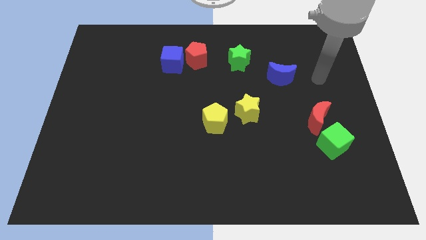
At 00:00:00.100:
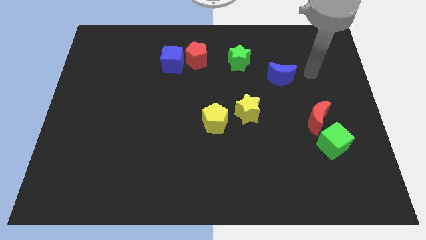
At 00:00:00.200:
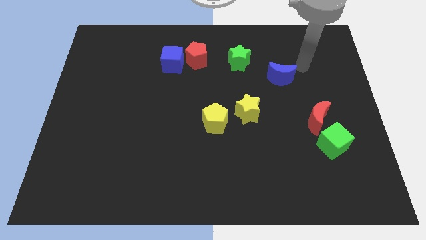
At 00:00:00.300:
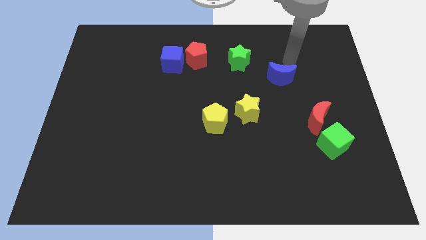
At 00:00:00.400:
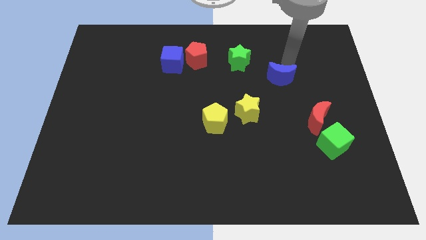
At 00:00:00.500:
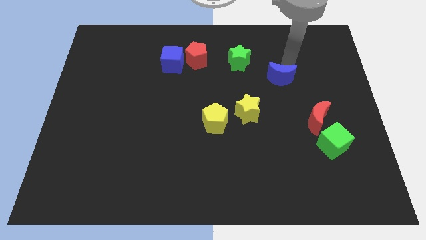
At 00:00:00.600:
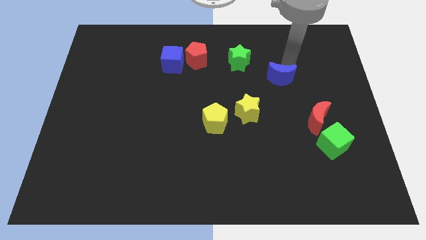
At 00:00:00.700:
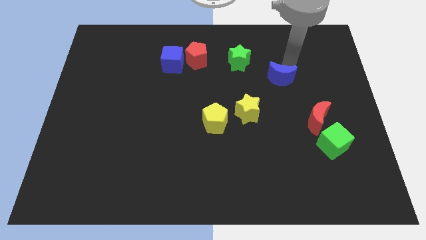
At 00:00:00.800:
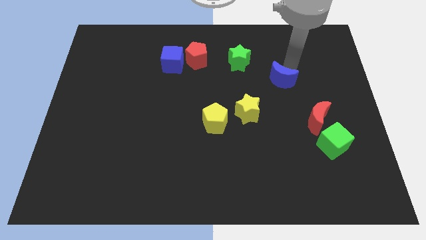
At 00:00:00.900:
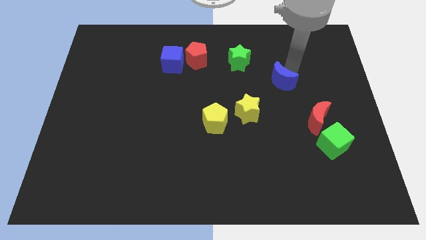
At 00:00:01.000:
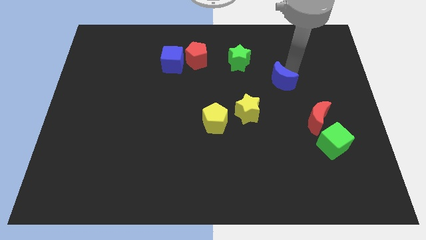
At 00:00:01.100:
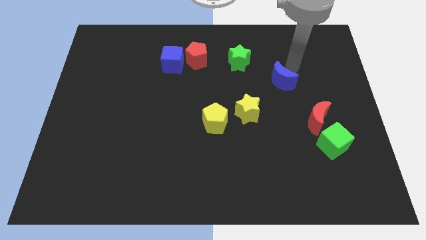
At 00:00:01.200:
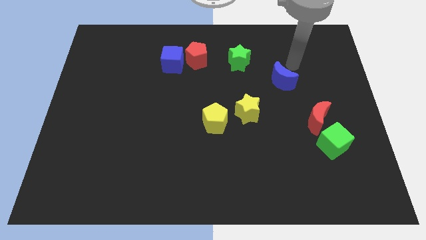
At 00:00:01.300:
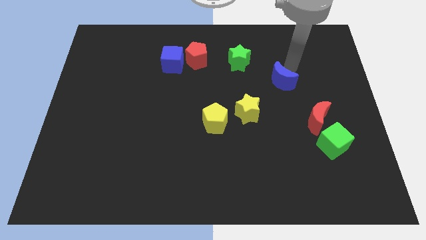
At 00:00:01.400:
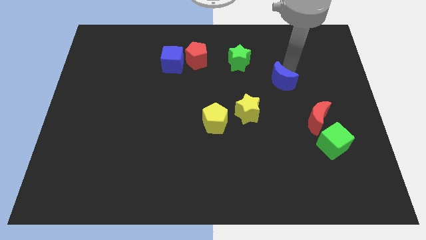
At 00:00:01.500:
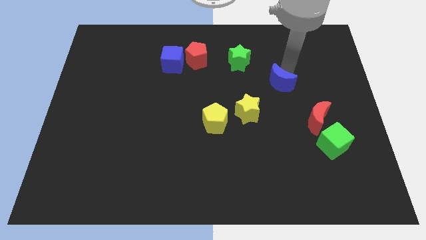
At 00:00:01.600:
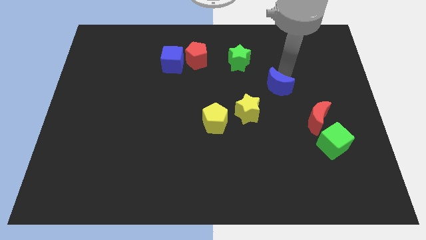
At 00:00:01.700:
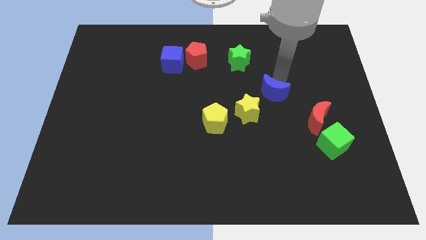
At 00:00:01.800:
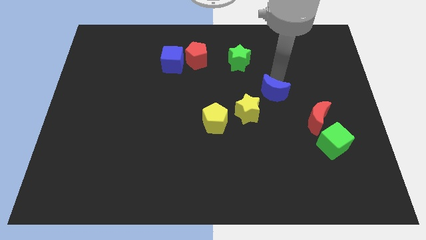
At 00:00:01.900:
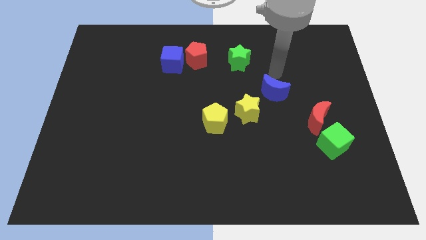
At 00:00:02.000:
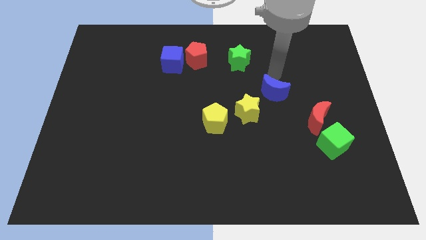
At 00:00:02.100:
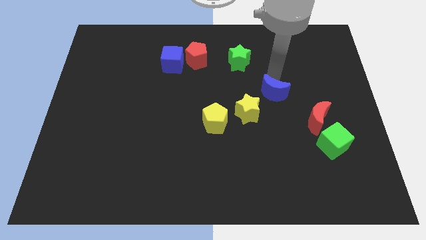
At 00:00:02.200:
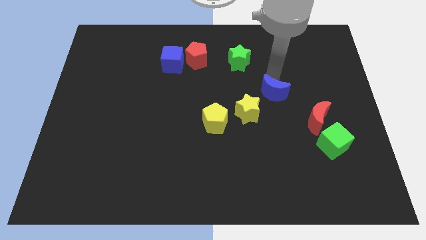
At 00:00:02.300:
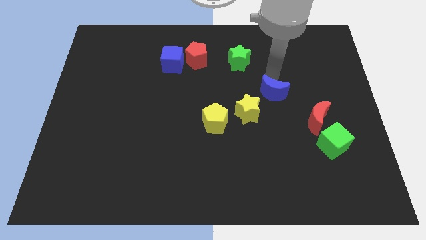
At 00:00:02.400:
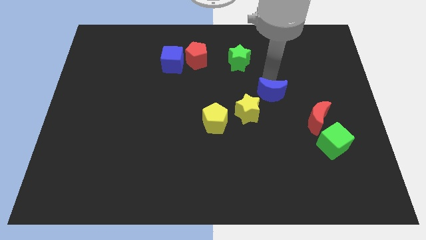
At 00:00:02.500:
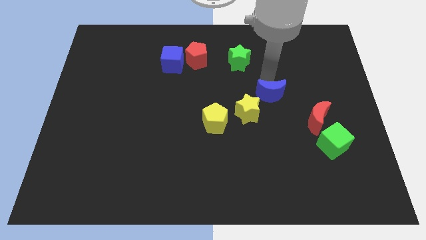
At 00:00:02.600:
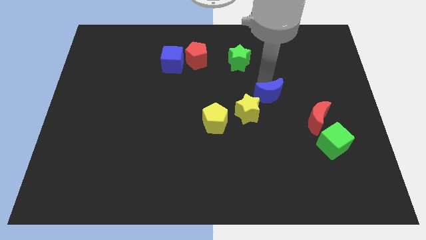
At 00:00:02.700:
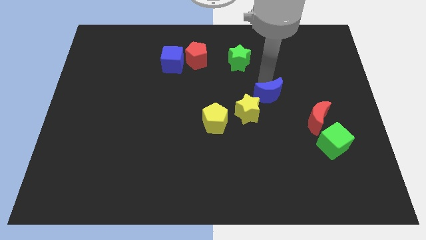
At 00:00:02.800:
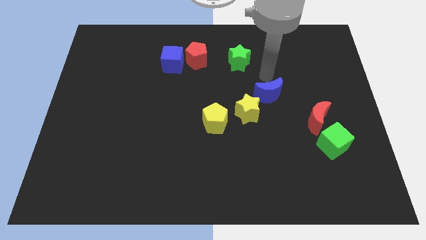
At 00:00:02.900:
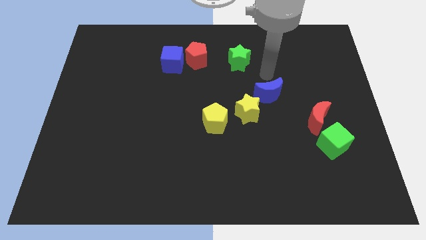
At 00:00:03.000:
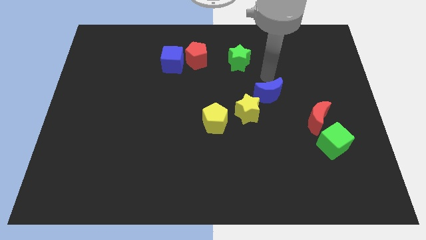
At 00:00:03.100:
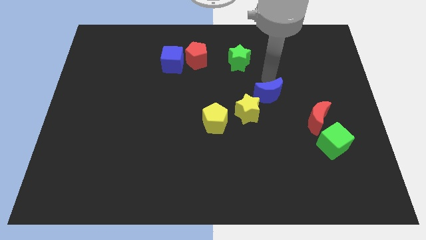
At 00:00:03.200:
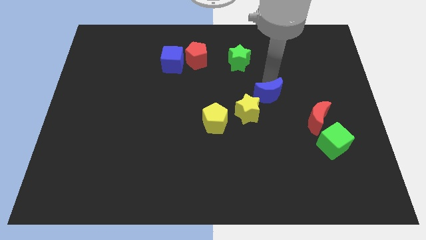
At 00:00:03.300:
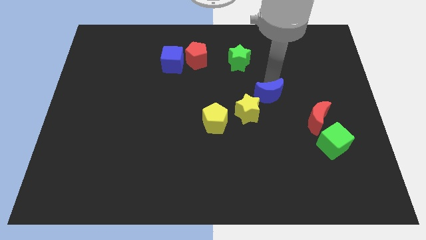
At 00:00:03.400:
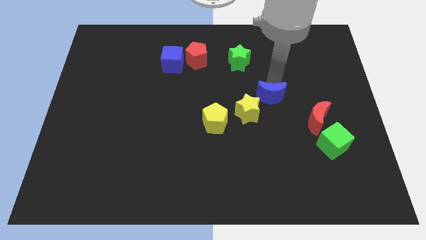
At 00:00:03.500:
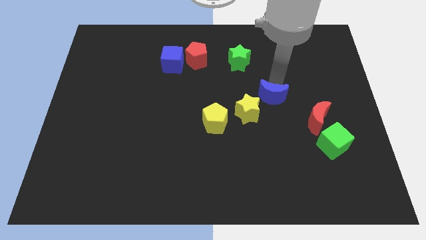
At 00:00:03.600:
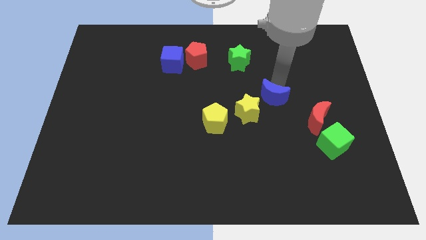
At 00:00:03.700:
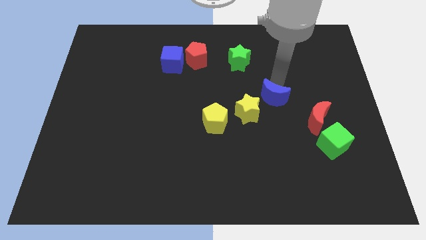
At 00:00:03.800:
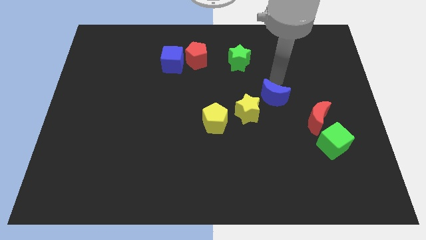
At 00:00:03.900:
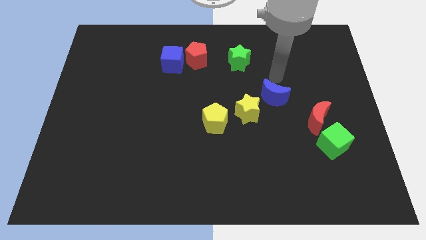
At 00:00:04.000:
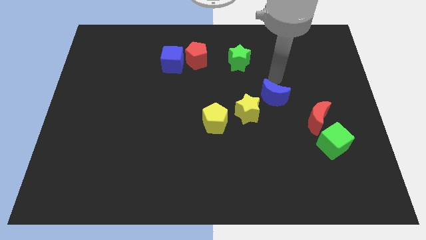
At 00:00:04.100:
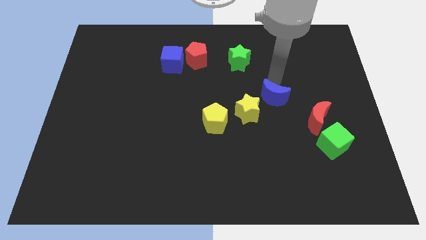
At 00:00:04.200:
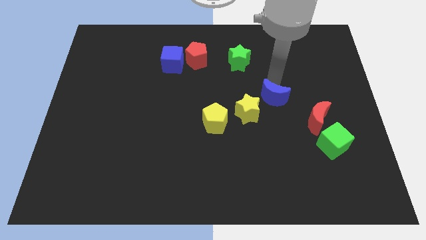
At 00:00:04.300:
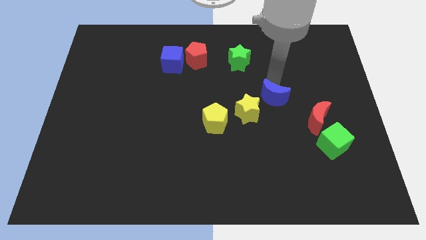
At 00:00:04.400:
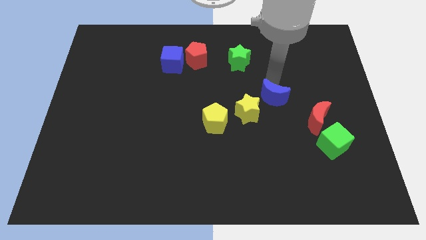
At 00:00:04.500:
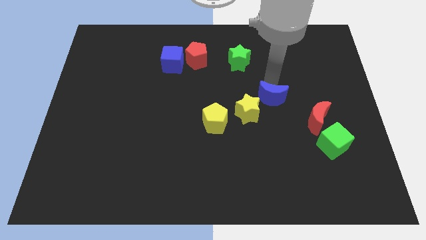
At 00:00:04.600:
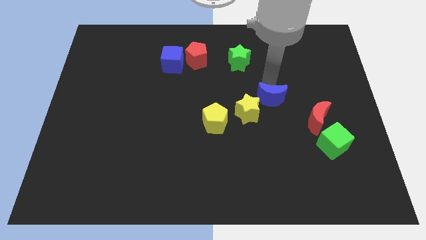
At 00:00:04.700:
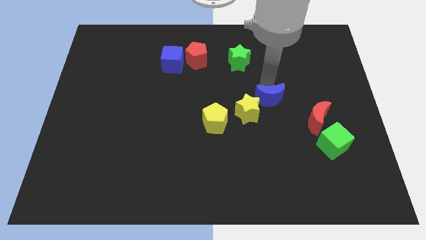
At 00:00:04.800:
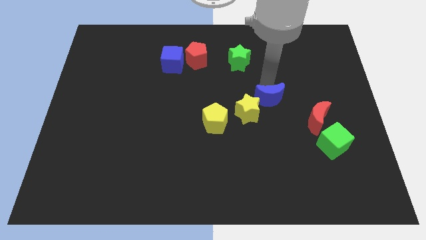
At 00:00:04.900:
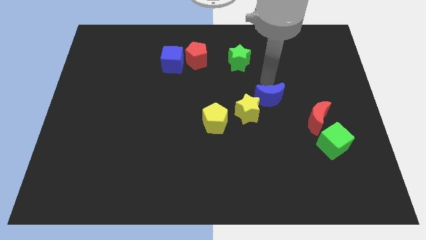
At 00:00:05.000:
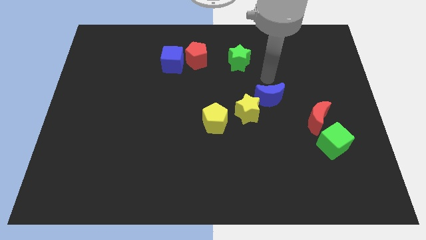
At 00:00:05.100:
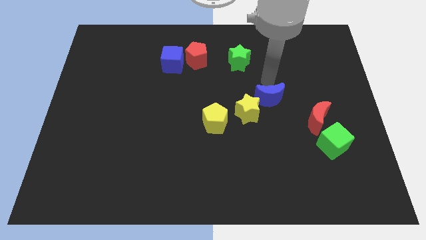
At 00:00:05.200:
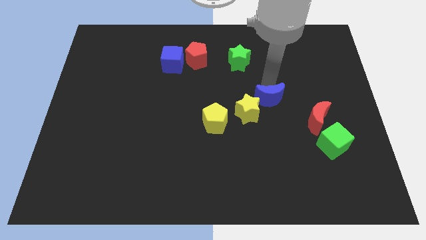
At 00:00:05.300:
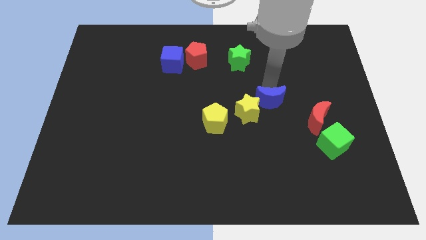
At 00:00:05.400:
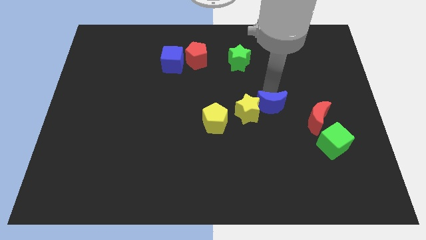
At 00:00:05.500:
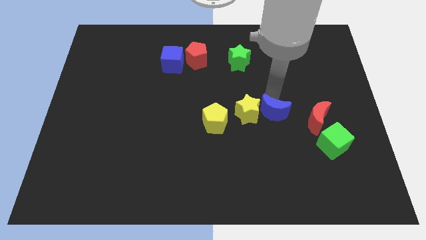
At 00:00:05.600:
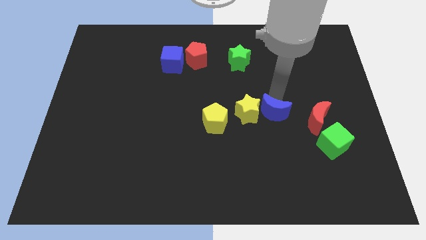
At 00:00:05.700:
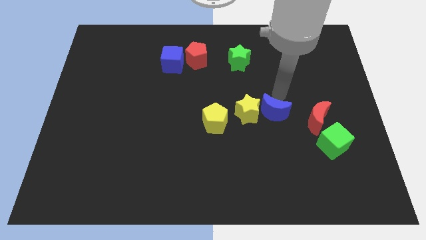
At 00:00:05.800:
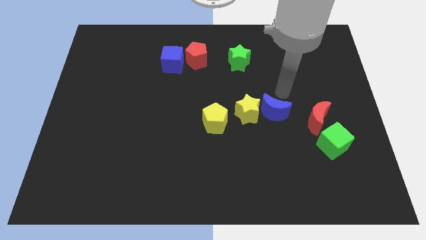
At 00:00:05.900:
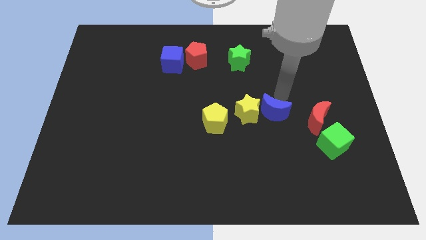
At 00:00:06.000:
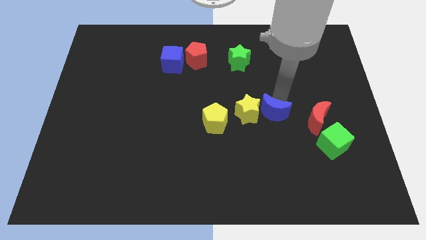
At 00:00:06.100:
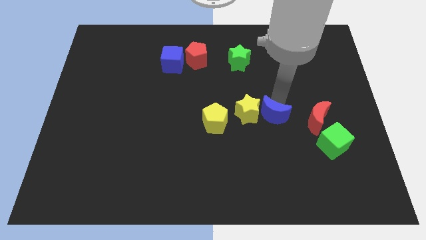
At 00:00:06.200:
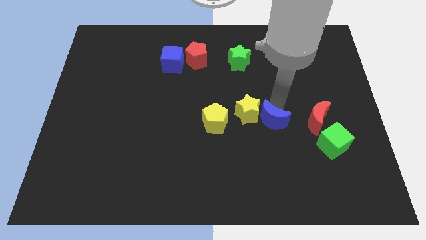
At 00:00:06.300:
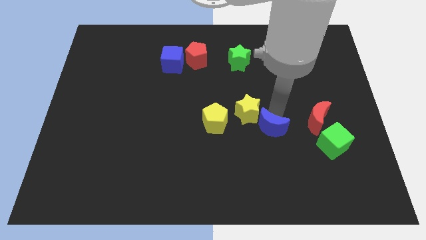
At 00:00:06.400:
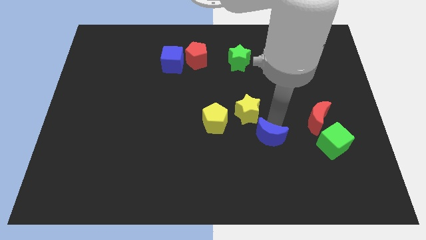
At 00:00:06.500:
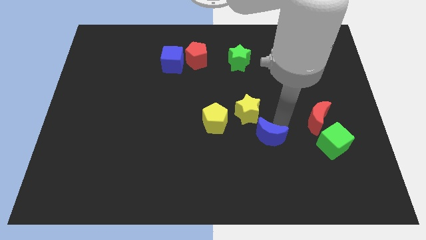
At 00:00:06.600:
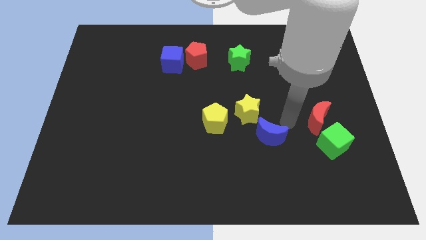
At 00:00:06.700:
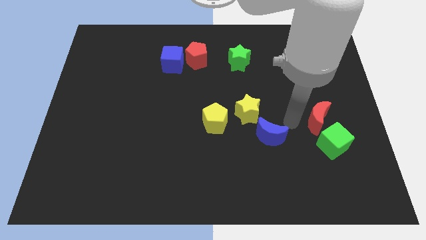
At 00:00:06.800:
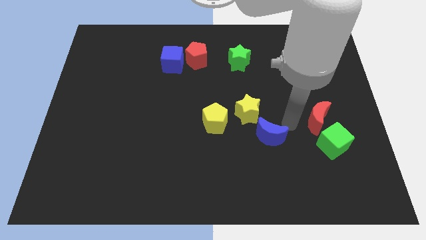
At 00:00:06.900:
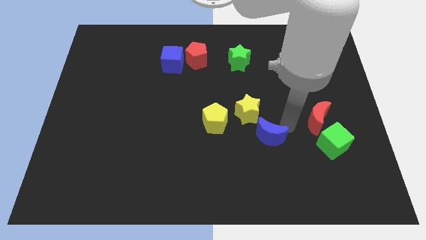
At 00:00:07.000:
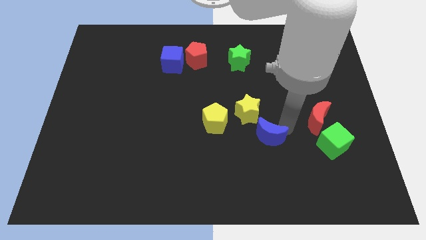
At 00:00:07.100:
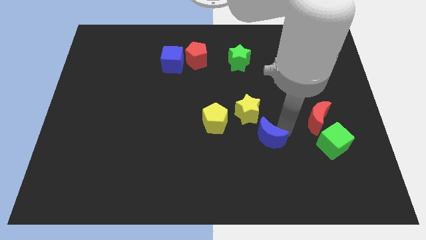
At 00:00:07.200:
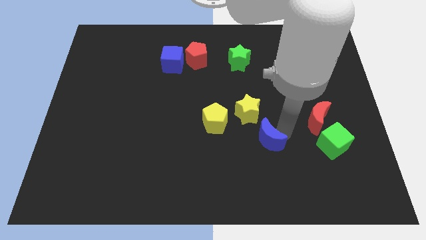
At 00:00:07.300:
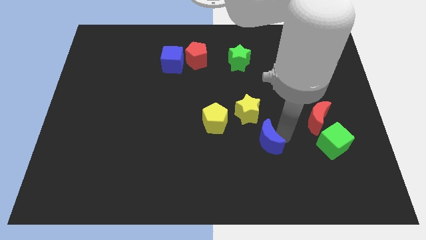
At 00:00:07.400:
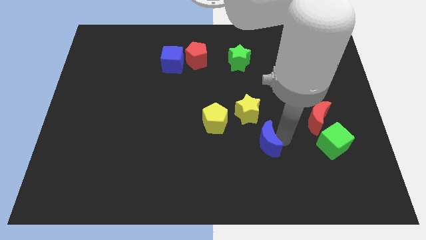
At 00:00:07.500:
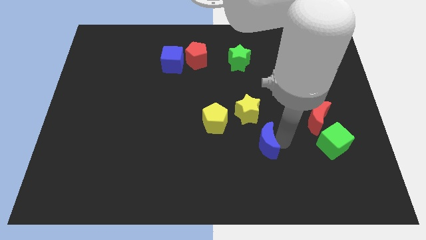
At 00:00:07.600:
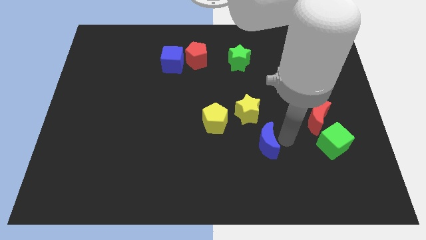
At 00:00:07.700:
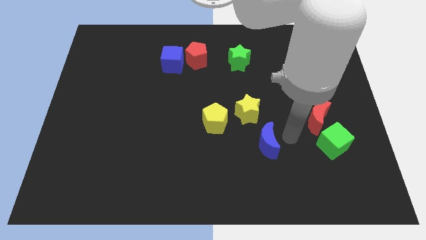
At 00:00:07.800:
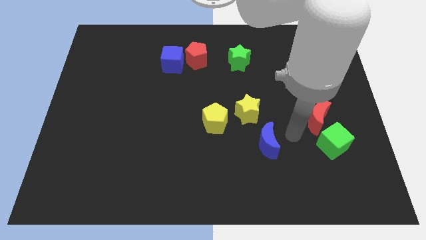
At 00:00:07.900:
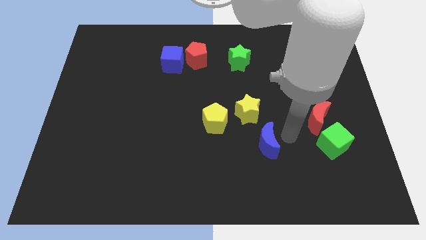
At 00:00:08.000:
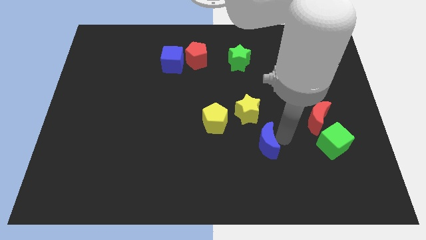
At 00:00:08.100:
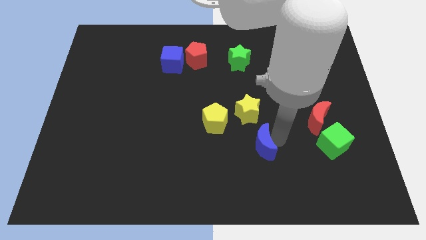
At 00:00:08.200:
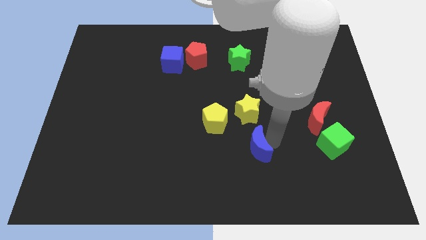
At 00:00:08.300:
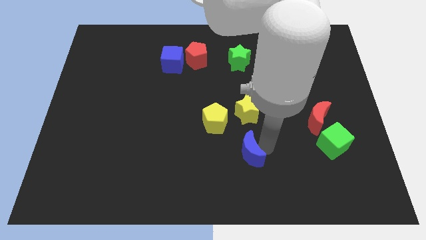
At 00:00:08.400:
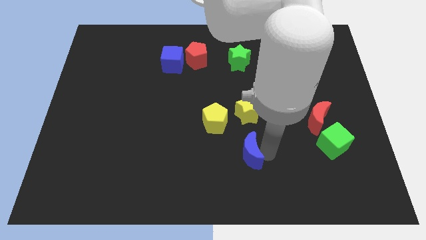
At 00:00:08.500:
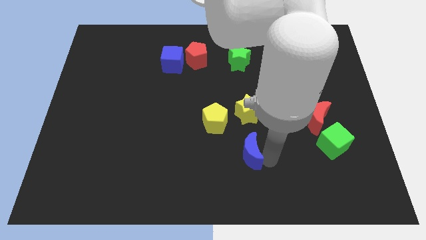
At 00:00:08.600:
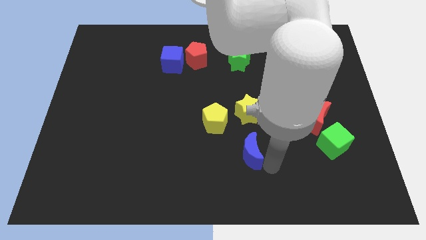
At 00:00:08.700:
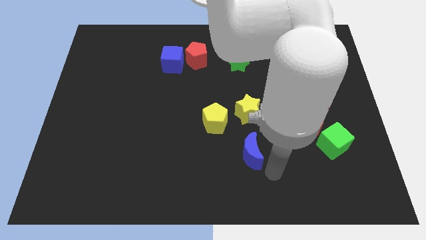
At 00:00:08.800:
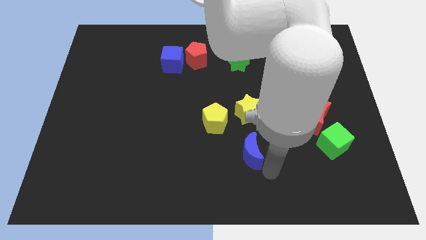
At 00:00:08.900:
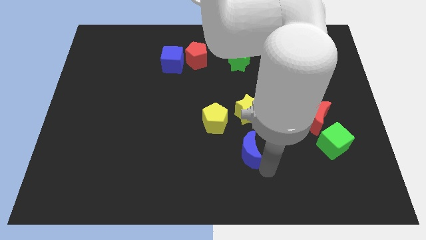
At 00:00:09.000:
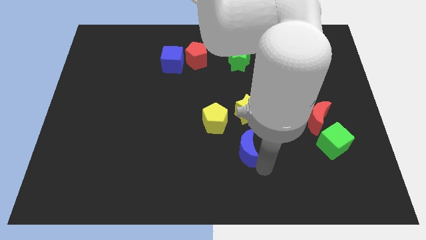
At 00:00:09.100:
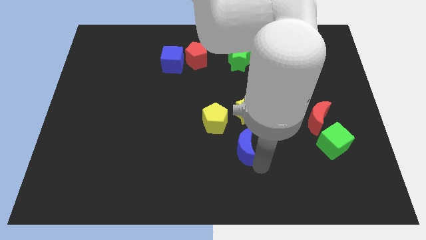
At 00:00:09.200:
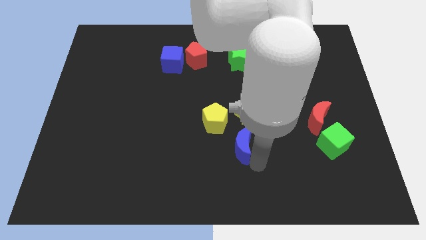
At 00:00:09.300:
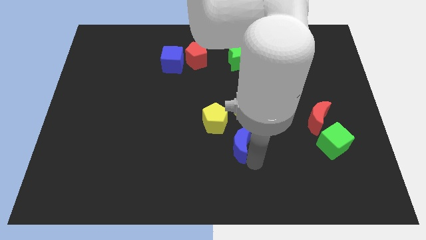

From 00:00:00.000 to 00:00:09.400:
push the blue moon to the bottom left side of the yellow star
